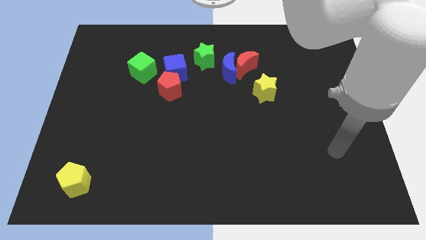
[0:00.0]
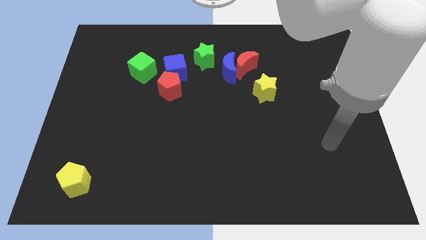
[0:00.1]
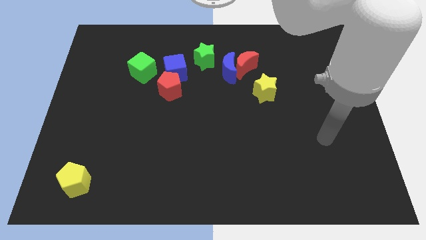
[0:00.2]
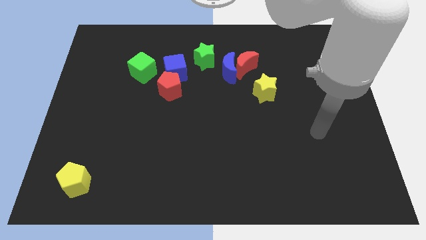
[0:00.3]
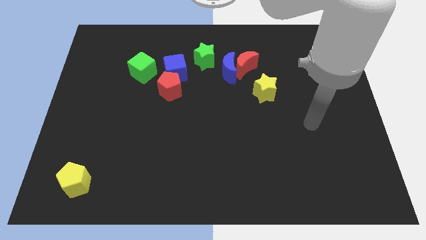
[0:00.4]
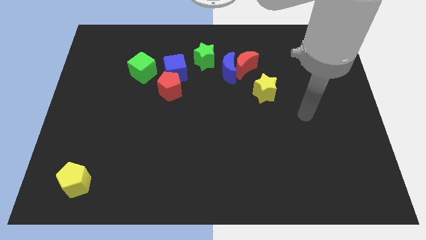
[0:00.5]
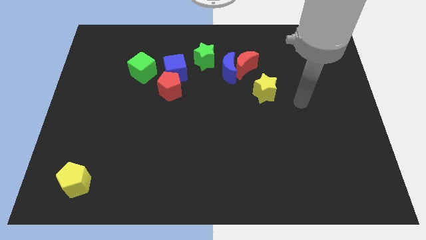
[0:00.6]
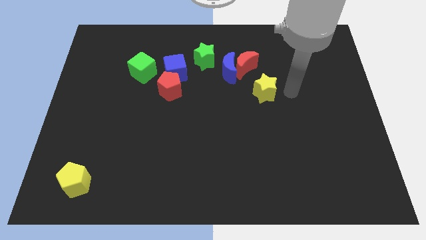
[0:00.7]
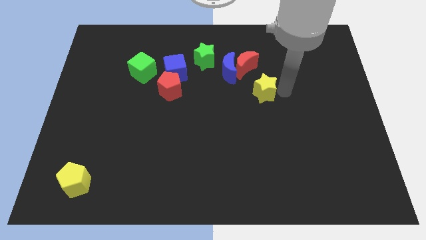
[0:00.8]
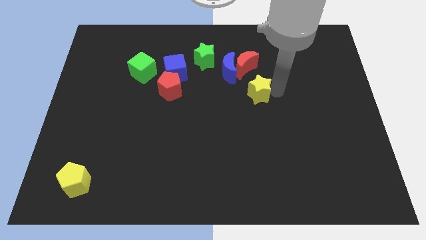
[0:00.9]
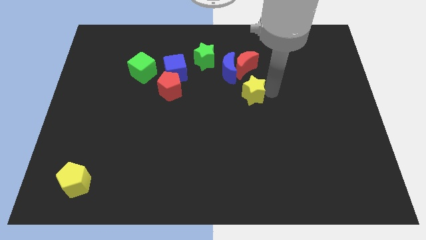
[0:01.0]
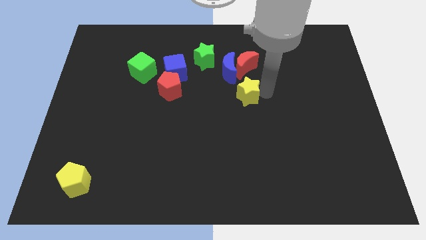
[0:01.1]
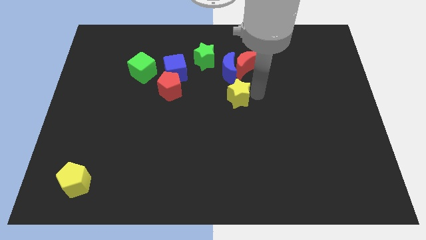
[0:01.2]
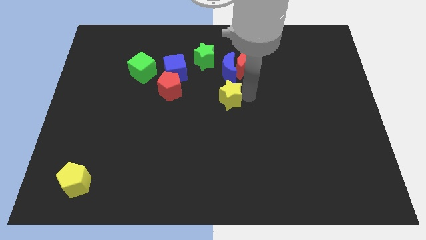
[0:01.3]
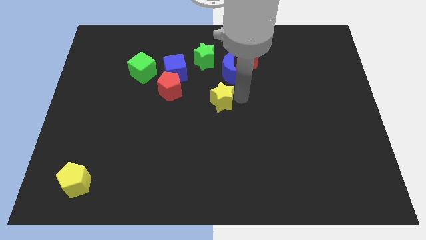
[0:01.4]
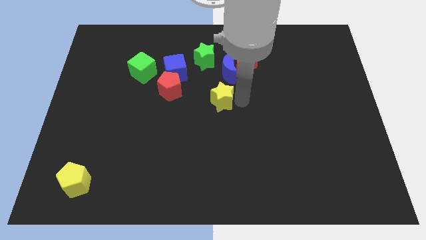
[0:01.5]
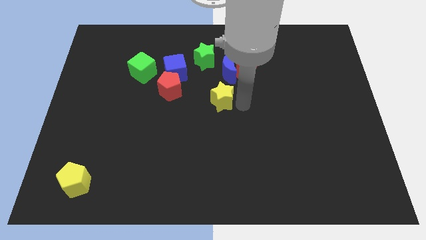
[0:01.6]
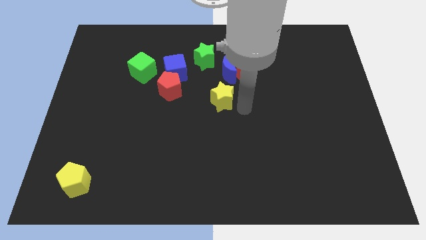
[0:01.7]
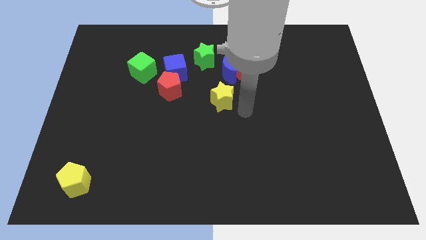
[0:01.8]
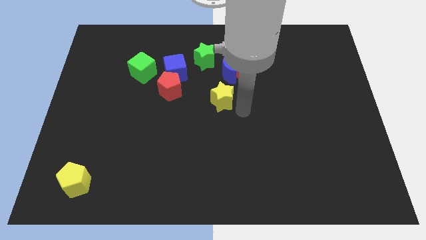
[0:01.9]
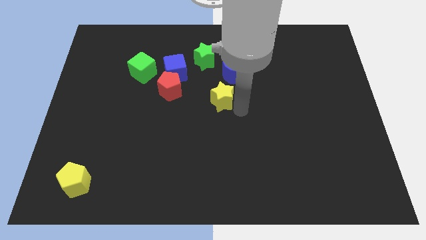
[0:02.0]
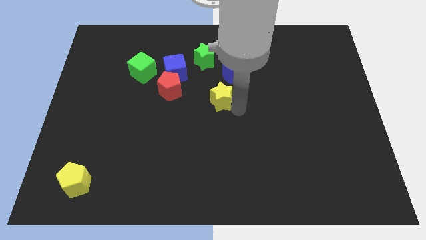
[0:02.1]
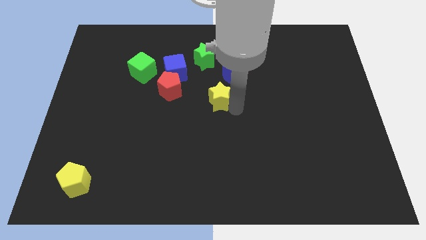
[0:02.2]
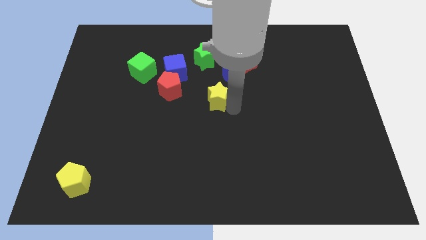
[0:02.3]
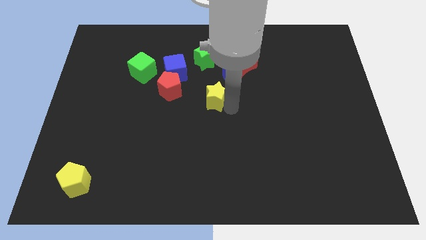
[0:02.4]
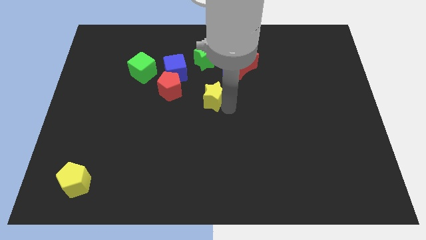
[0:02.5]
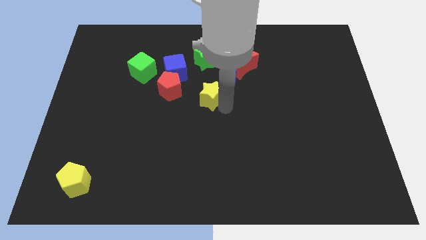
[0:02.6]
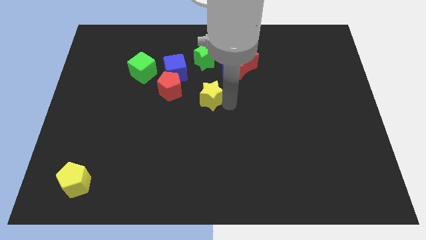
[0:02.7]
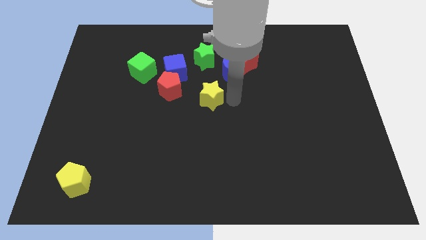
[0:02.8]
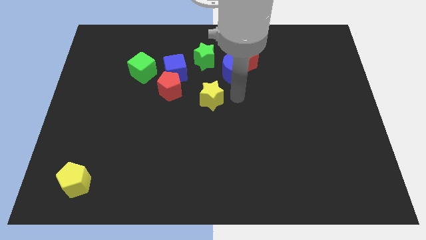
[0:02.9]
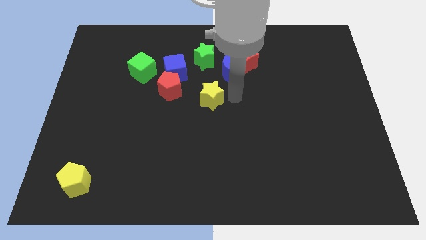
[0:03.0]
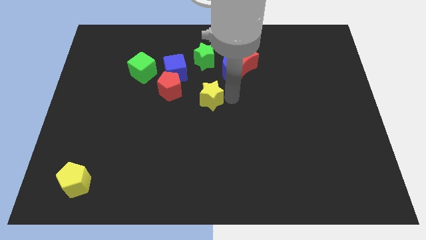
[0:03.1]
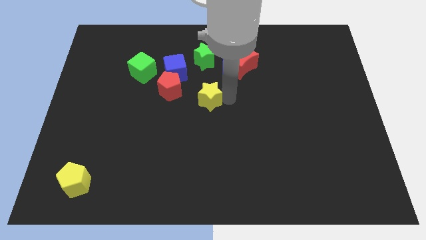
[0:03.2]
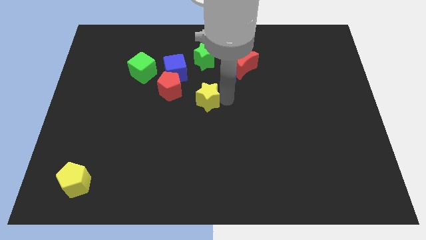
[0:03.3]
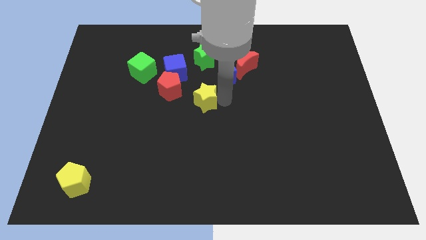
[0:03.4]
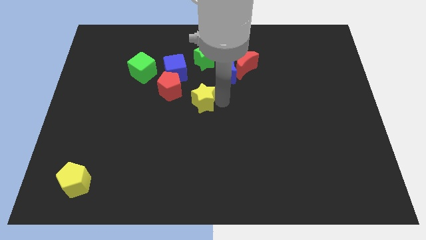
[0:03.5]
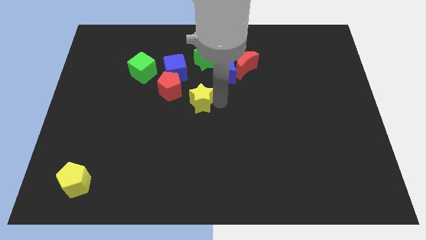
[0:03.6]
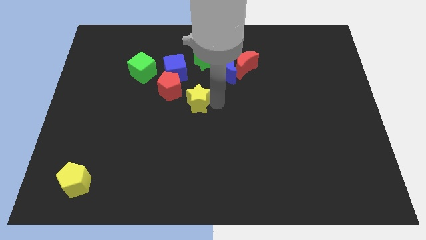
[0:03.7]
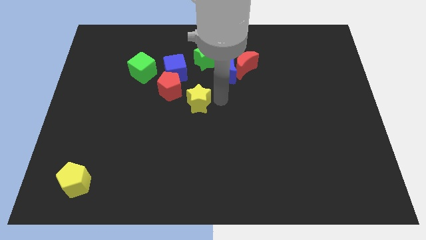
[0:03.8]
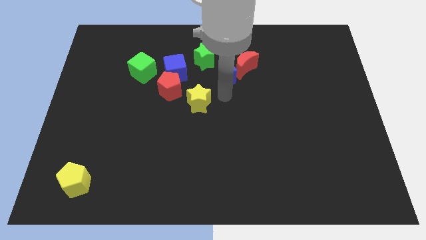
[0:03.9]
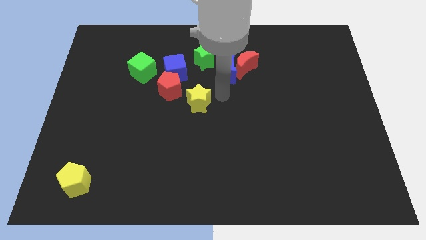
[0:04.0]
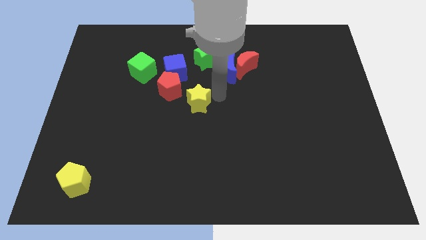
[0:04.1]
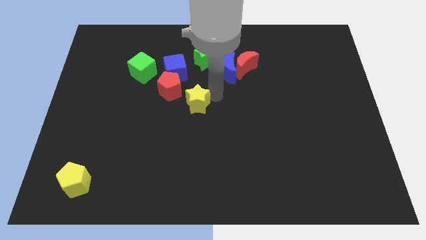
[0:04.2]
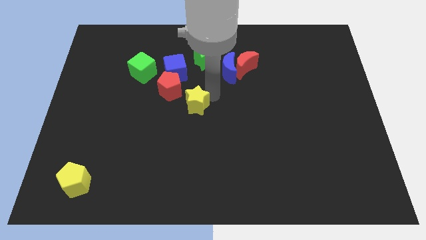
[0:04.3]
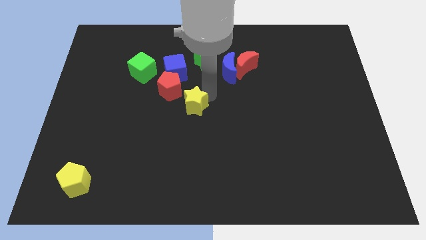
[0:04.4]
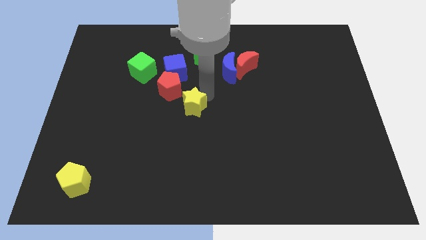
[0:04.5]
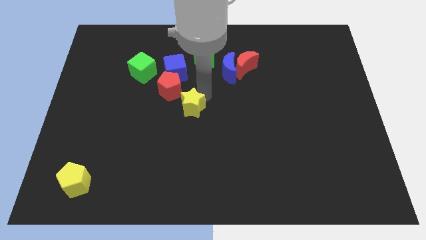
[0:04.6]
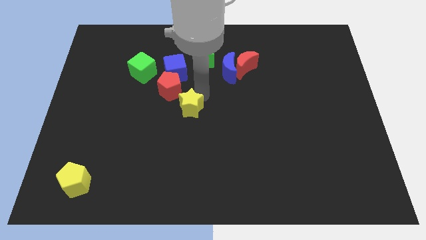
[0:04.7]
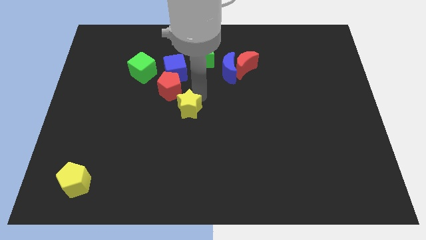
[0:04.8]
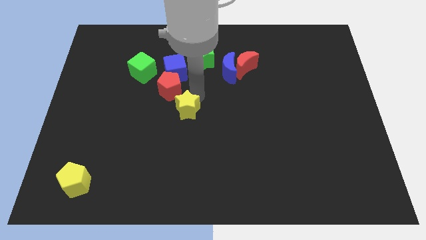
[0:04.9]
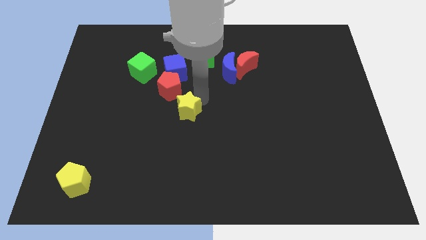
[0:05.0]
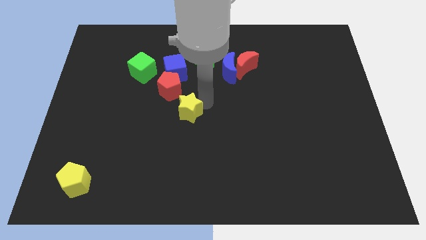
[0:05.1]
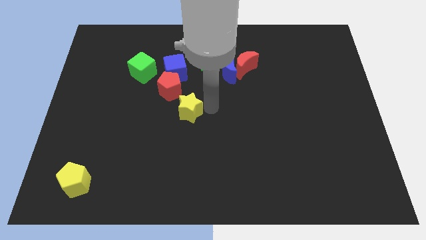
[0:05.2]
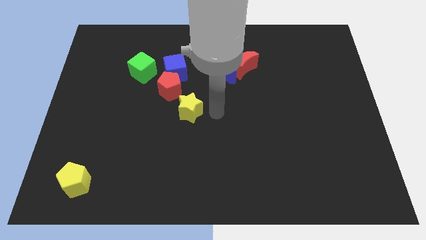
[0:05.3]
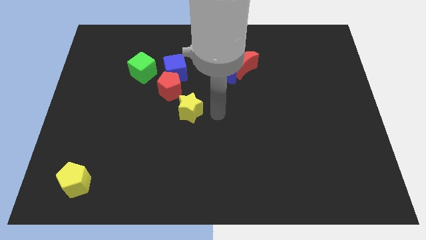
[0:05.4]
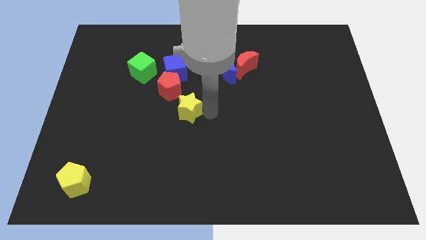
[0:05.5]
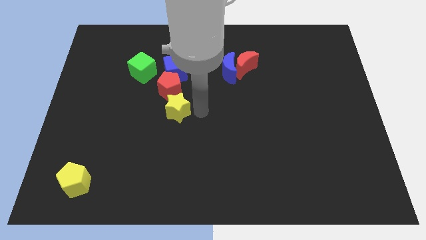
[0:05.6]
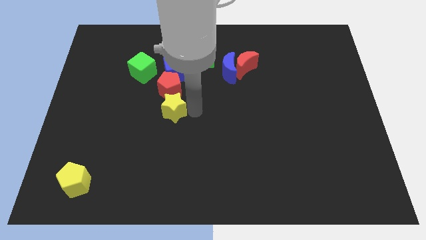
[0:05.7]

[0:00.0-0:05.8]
move the yellow star left

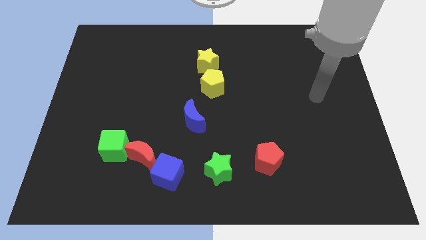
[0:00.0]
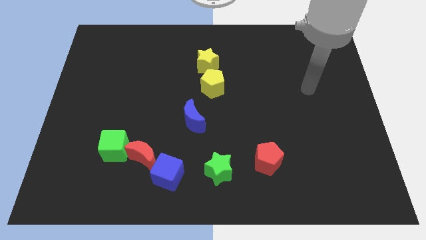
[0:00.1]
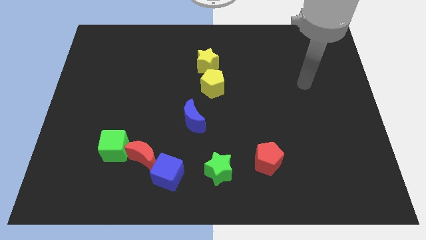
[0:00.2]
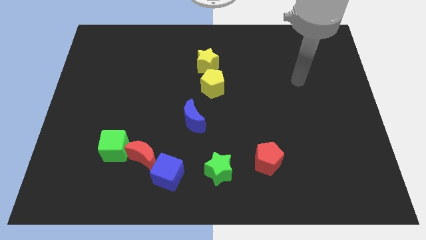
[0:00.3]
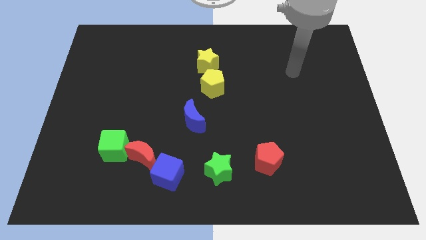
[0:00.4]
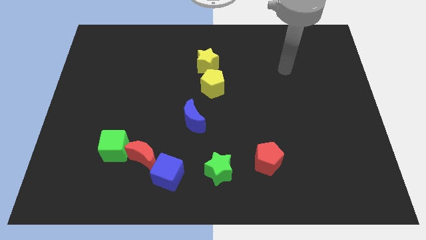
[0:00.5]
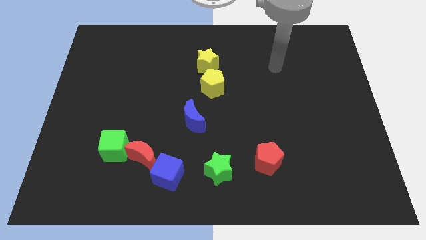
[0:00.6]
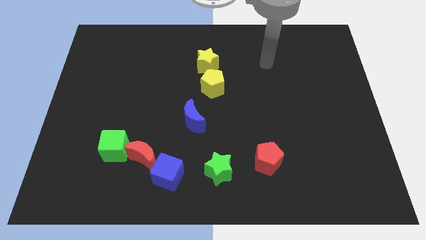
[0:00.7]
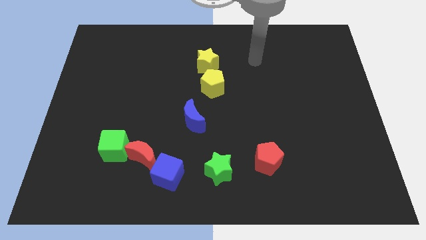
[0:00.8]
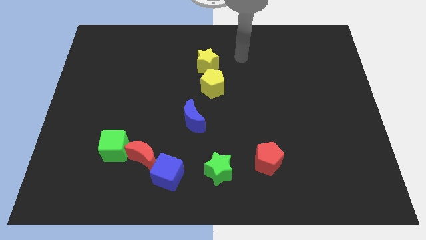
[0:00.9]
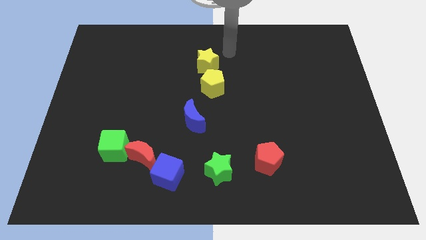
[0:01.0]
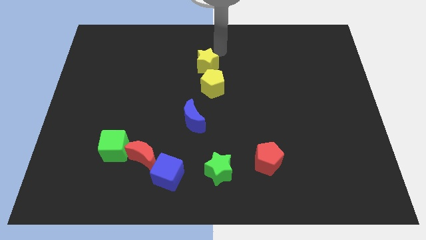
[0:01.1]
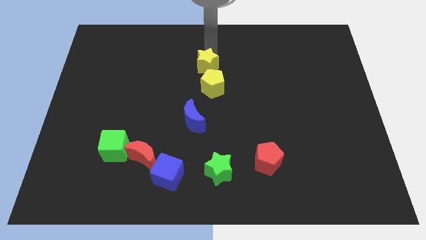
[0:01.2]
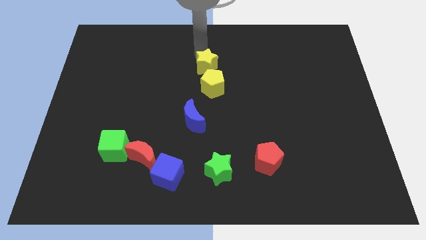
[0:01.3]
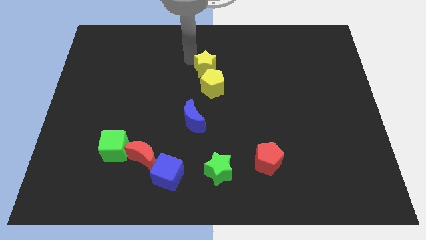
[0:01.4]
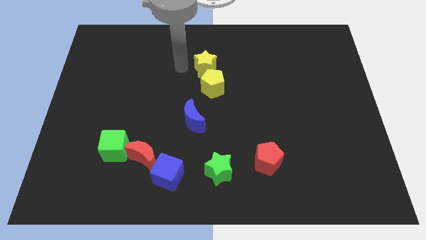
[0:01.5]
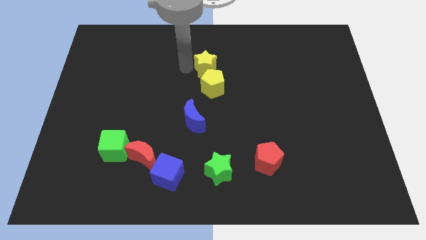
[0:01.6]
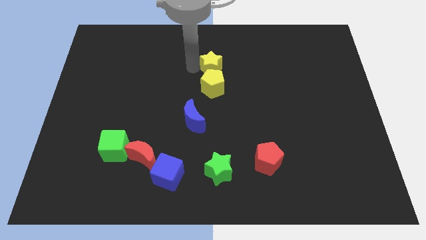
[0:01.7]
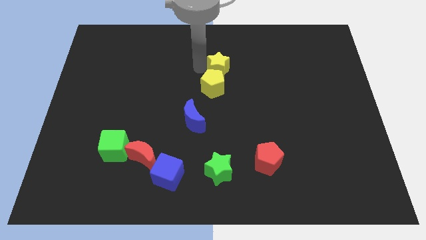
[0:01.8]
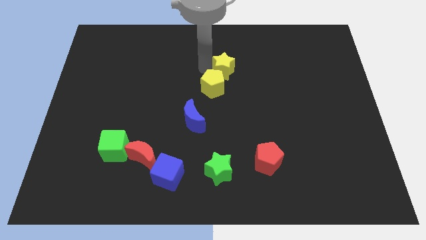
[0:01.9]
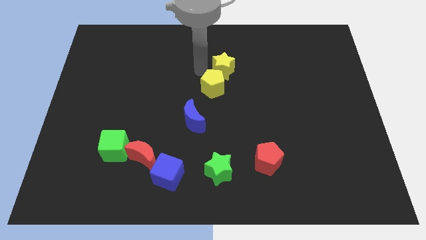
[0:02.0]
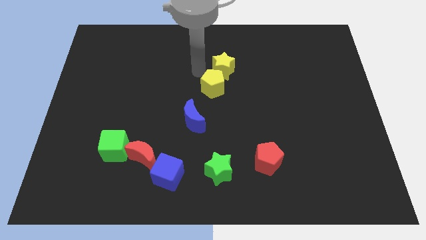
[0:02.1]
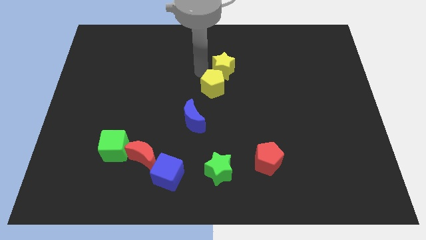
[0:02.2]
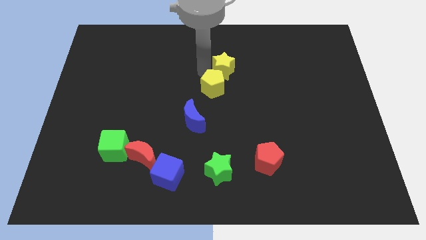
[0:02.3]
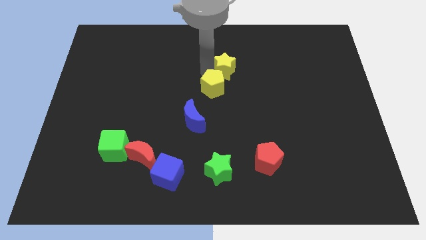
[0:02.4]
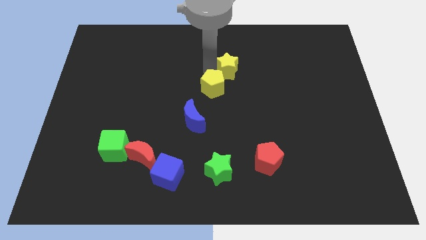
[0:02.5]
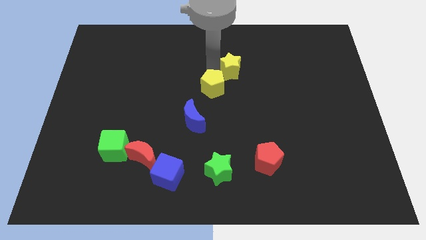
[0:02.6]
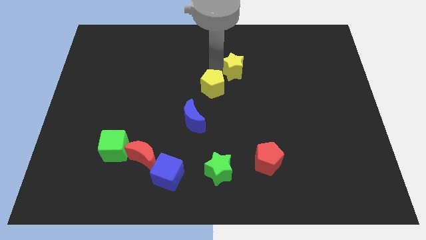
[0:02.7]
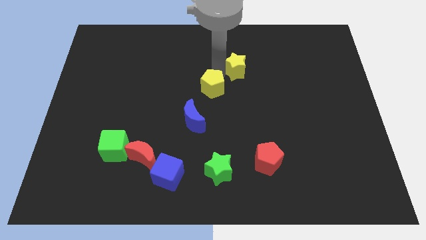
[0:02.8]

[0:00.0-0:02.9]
push the yellow star a bit to the right
